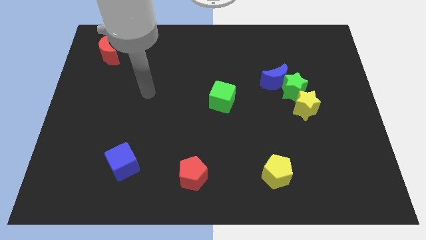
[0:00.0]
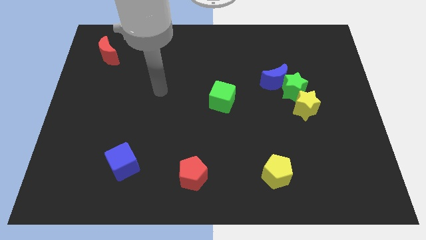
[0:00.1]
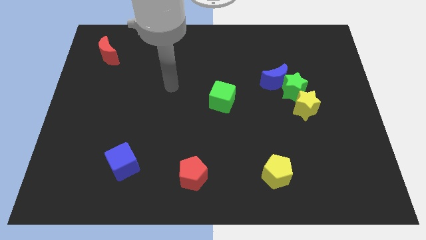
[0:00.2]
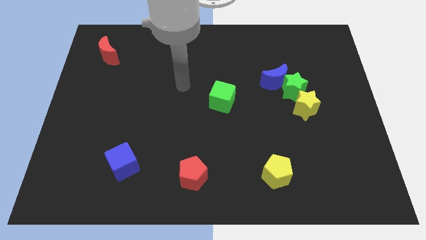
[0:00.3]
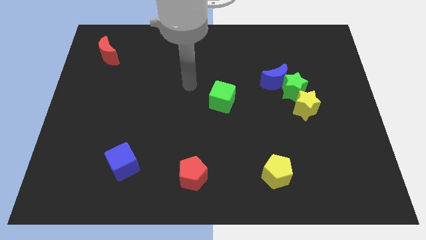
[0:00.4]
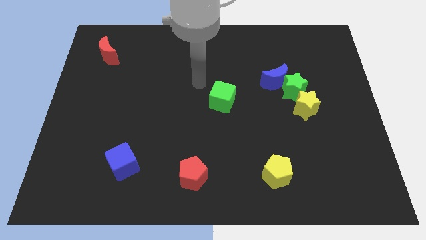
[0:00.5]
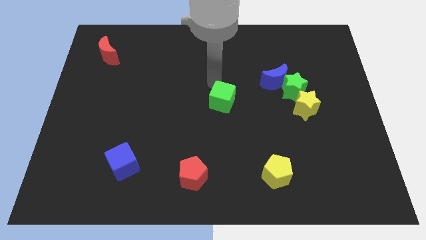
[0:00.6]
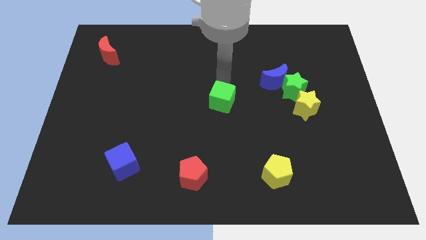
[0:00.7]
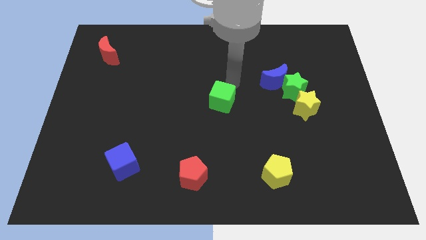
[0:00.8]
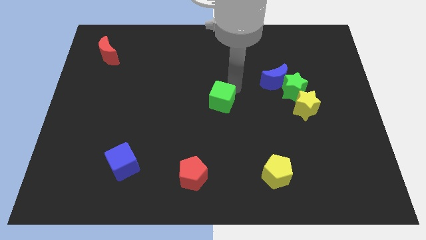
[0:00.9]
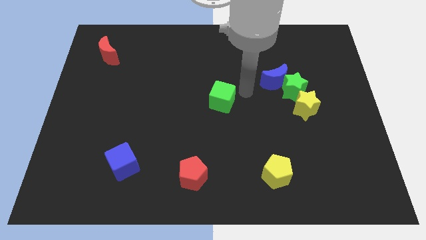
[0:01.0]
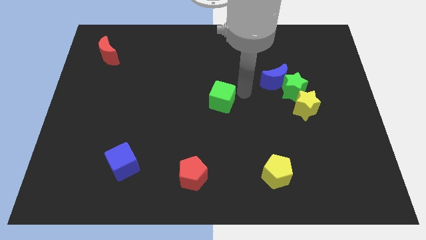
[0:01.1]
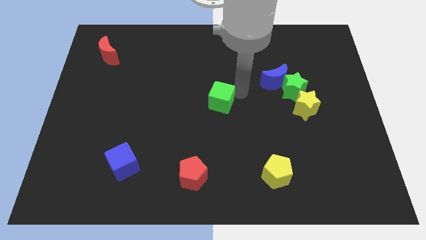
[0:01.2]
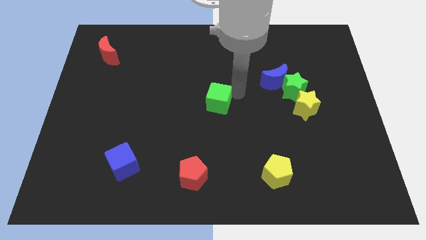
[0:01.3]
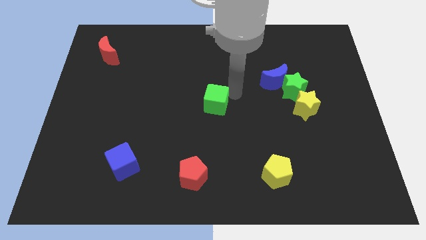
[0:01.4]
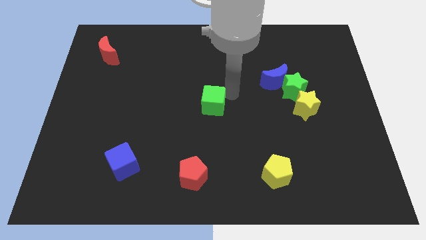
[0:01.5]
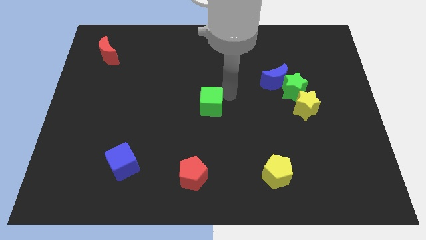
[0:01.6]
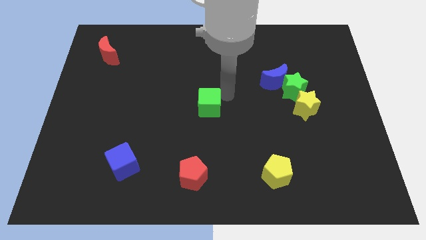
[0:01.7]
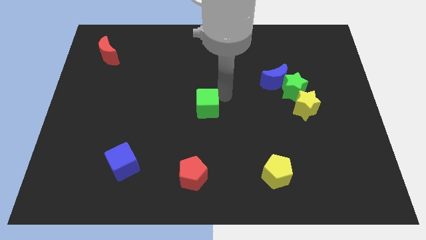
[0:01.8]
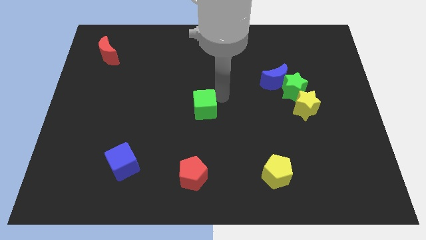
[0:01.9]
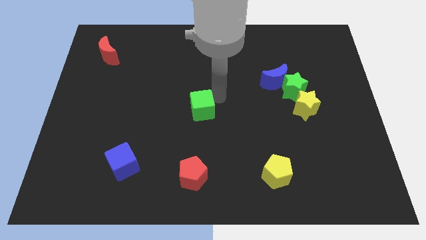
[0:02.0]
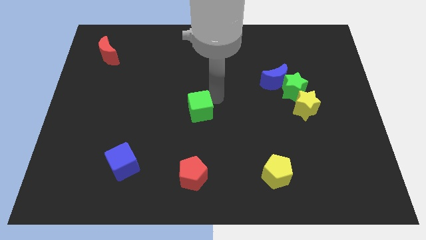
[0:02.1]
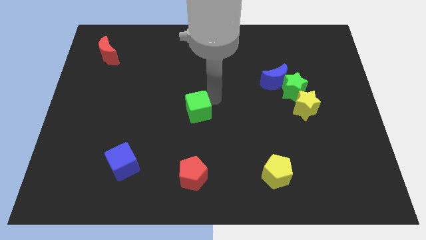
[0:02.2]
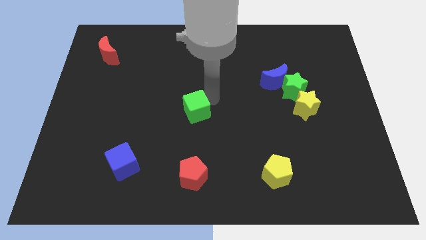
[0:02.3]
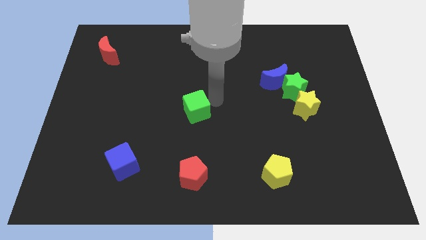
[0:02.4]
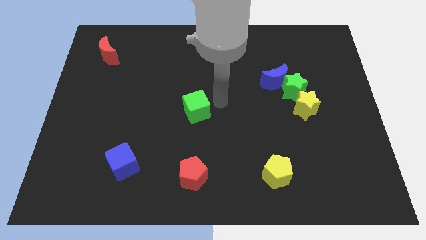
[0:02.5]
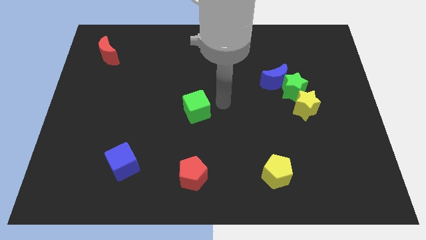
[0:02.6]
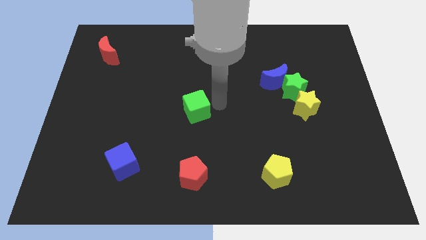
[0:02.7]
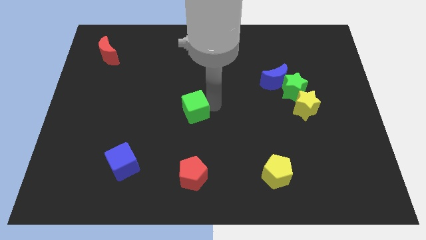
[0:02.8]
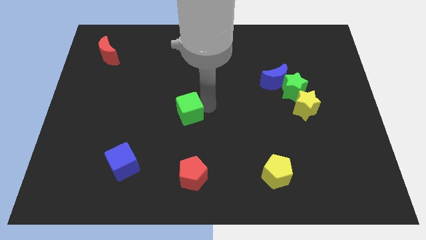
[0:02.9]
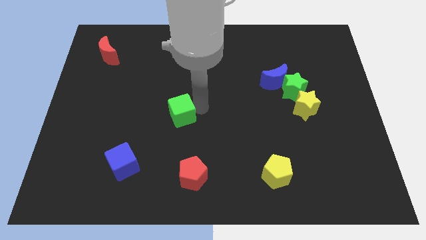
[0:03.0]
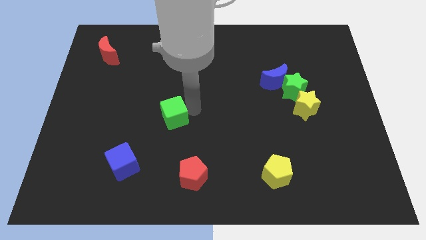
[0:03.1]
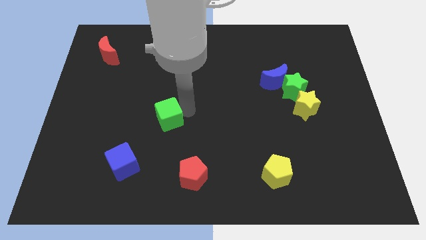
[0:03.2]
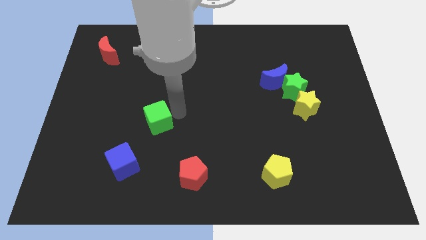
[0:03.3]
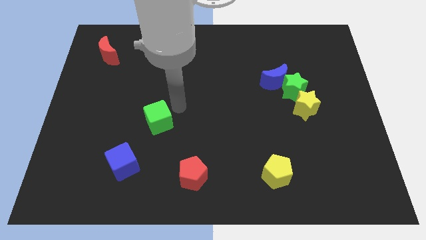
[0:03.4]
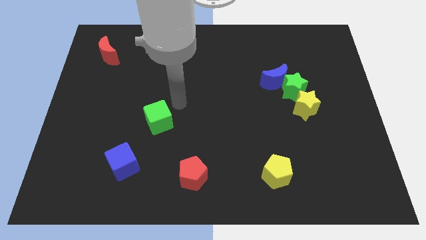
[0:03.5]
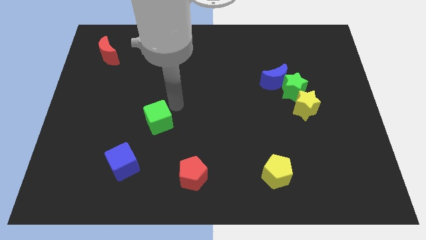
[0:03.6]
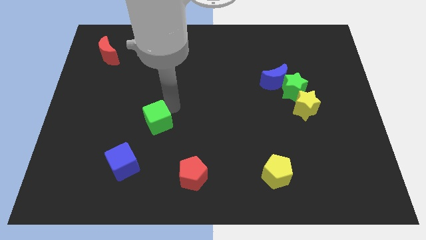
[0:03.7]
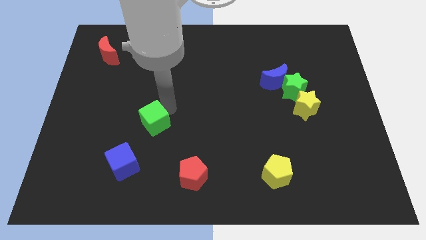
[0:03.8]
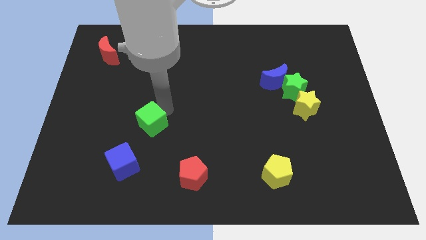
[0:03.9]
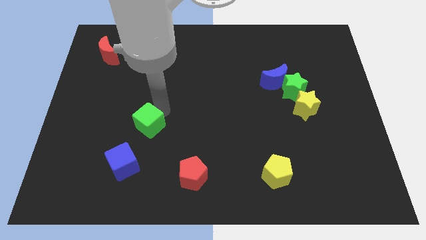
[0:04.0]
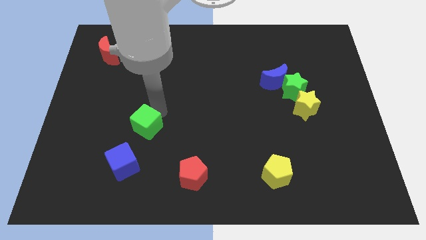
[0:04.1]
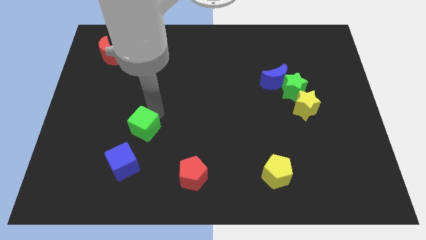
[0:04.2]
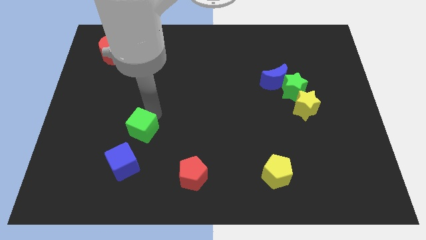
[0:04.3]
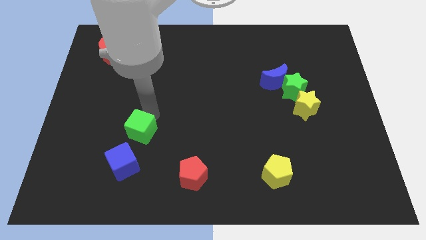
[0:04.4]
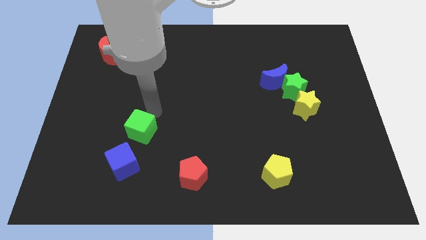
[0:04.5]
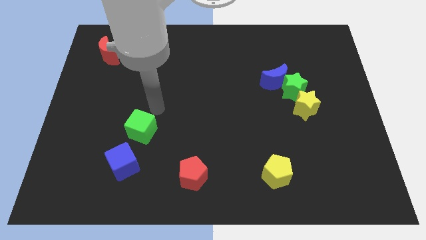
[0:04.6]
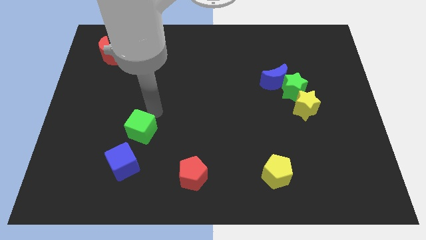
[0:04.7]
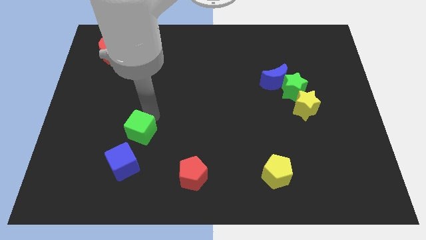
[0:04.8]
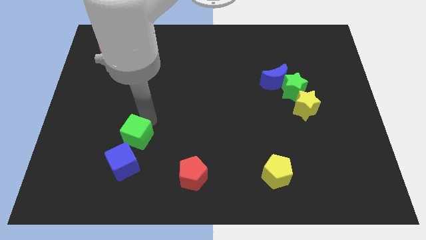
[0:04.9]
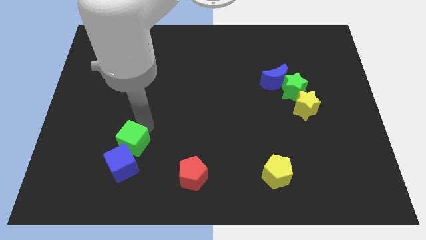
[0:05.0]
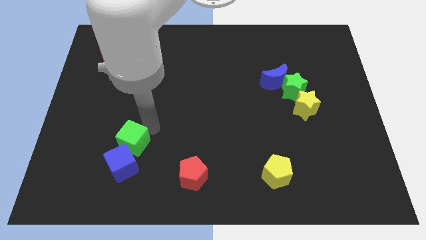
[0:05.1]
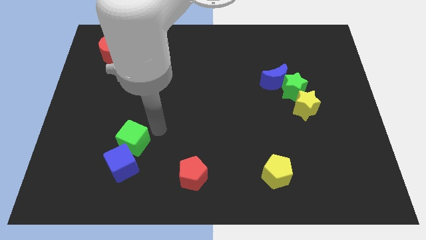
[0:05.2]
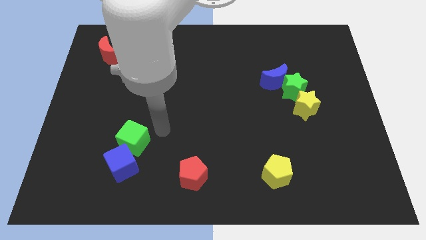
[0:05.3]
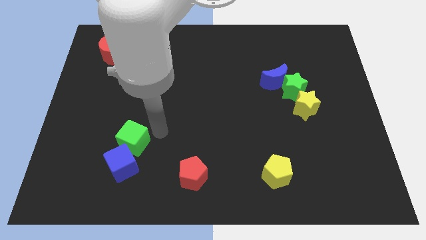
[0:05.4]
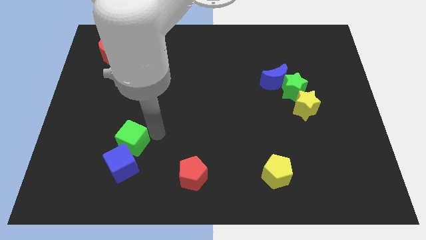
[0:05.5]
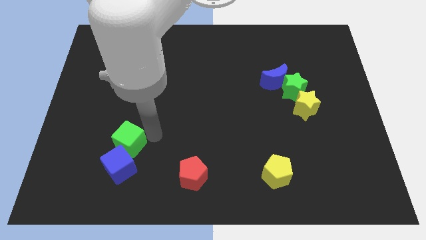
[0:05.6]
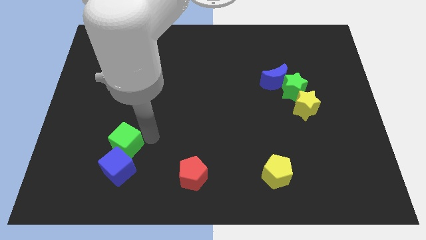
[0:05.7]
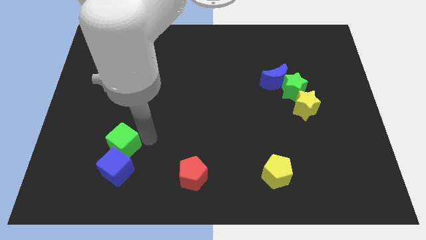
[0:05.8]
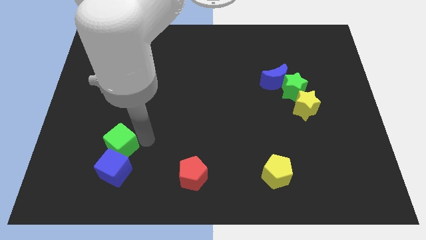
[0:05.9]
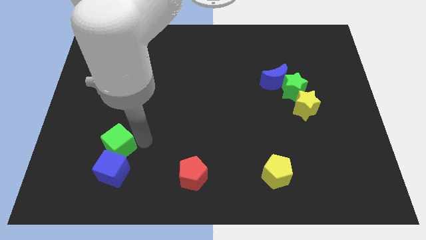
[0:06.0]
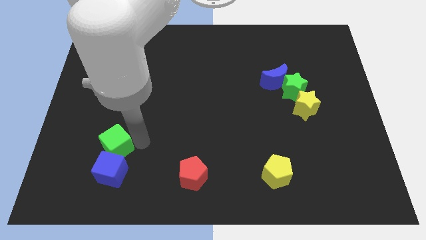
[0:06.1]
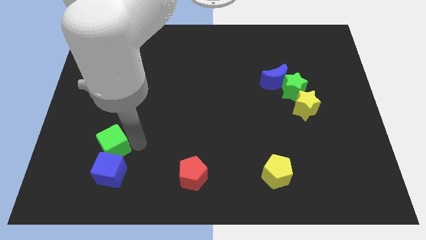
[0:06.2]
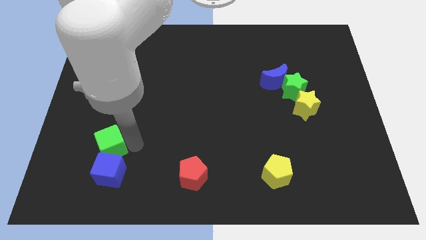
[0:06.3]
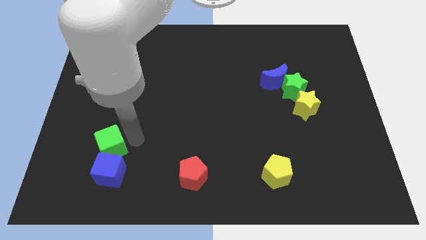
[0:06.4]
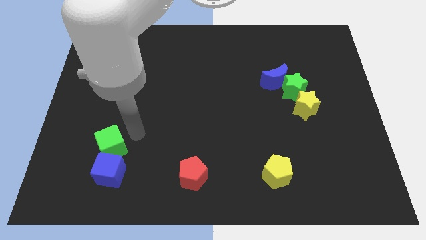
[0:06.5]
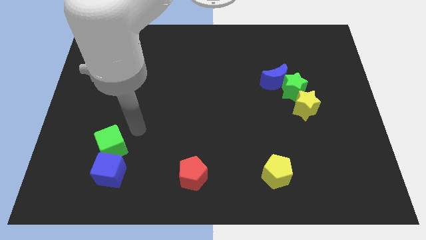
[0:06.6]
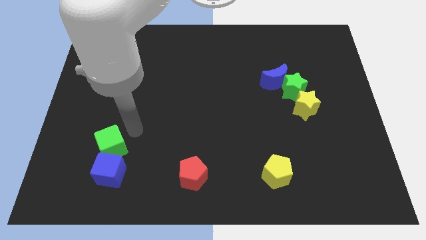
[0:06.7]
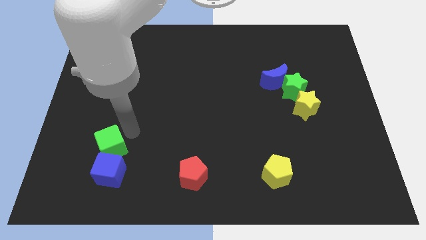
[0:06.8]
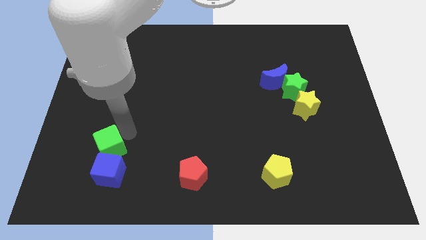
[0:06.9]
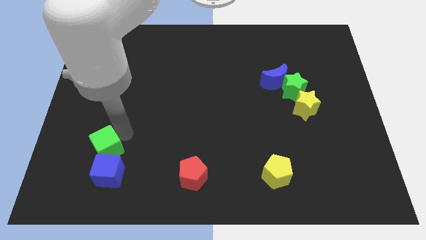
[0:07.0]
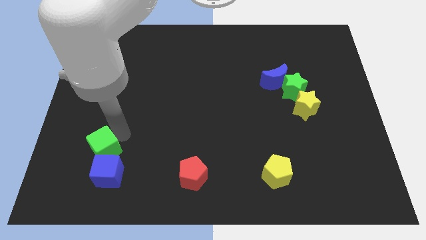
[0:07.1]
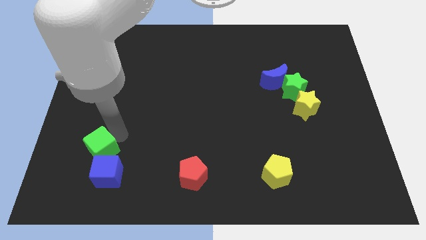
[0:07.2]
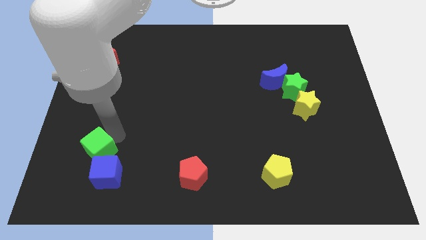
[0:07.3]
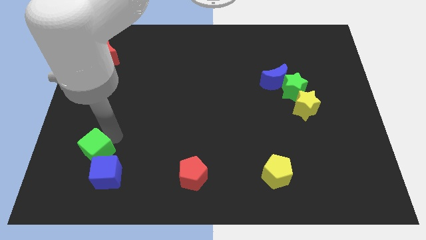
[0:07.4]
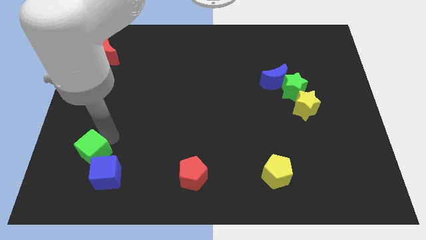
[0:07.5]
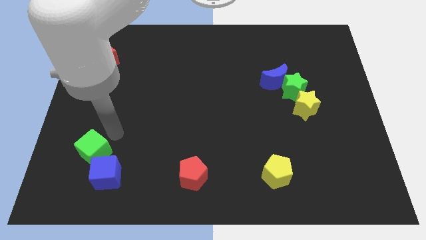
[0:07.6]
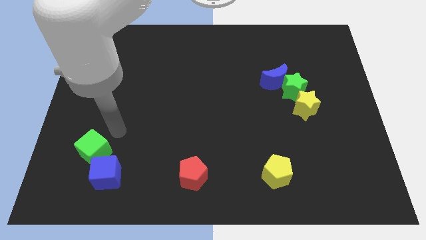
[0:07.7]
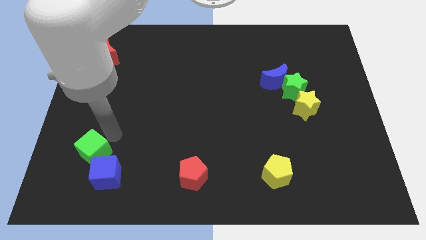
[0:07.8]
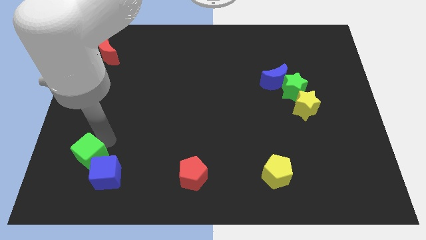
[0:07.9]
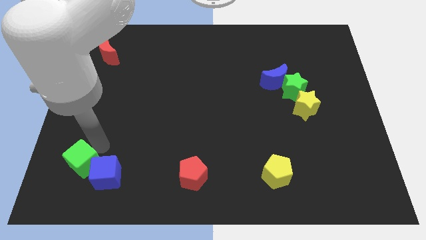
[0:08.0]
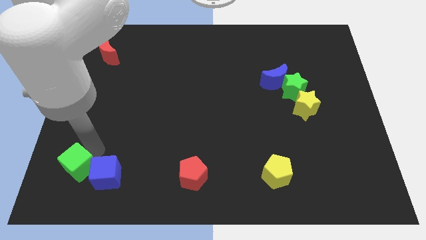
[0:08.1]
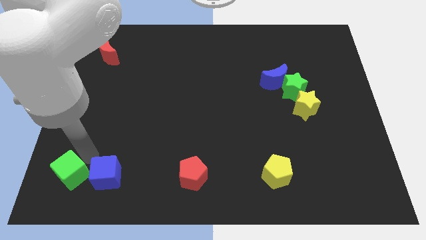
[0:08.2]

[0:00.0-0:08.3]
slide the green cube to the lower left corner
